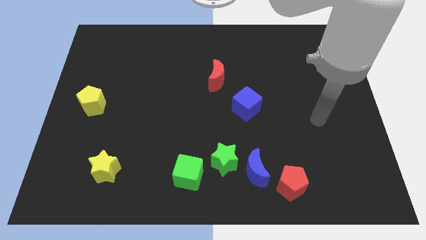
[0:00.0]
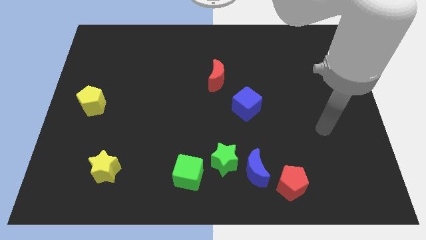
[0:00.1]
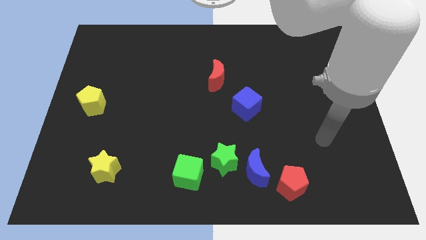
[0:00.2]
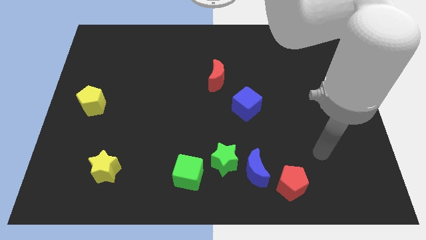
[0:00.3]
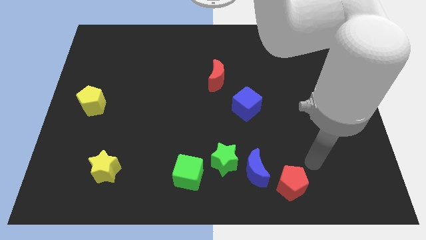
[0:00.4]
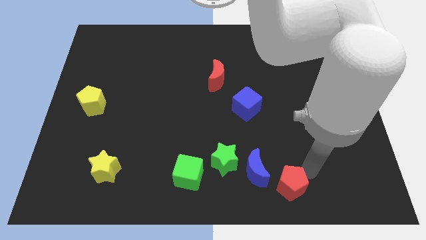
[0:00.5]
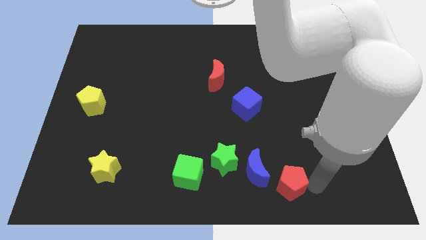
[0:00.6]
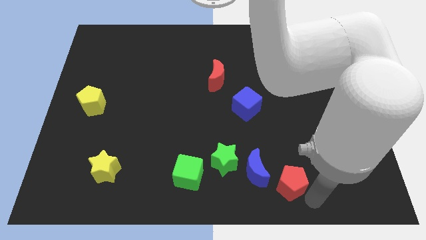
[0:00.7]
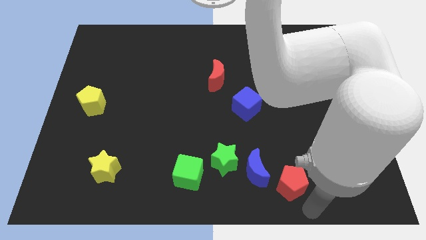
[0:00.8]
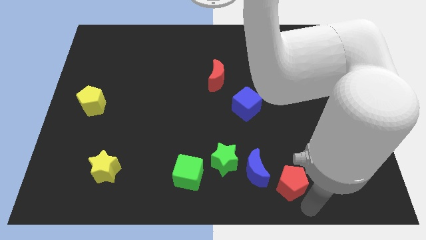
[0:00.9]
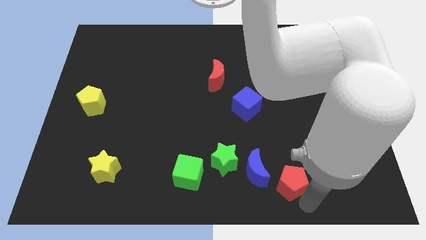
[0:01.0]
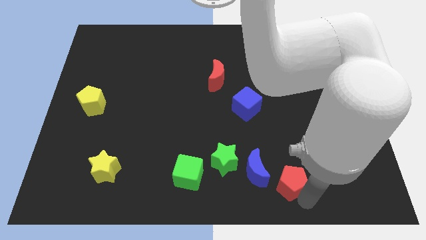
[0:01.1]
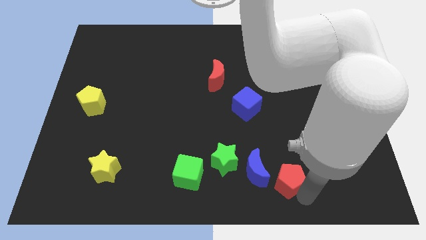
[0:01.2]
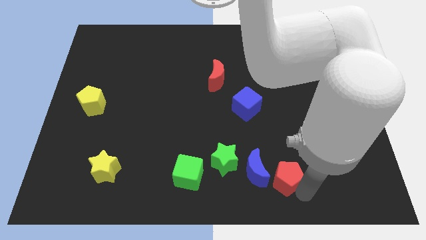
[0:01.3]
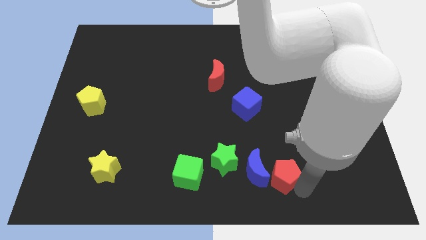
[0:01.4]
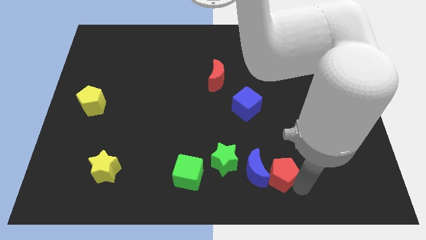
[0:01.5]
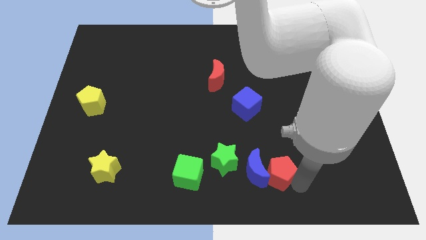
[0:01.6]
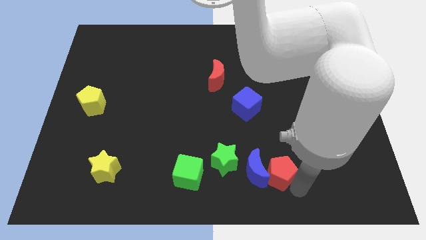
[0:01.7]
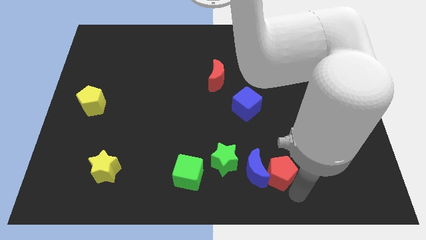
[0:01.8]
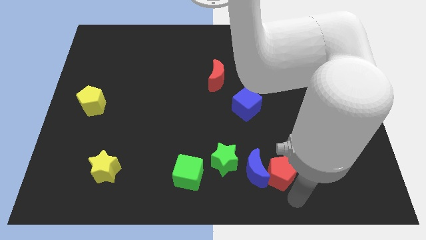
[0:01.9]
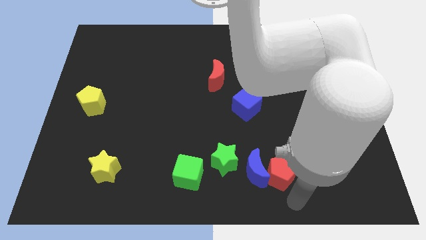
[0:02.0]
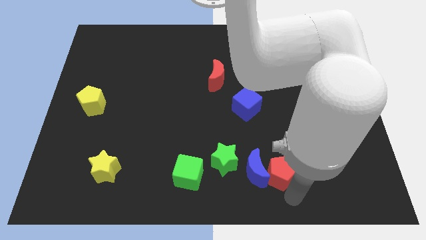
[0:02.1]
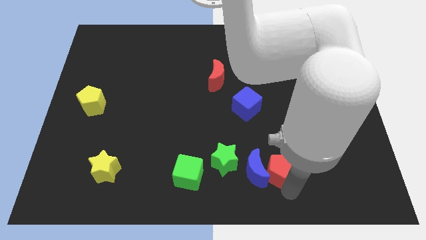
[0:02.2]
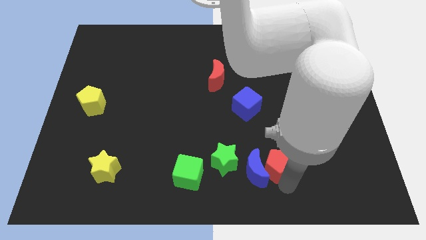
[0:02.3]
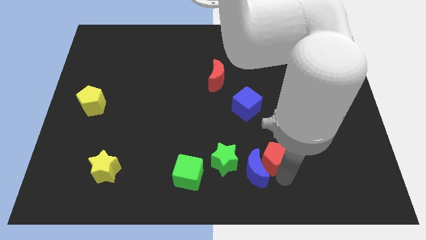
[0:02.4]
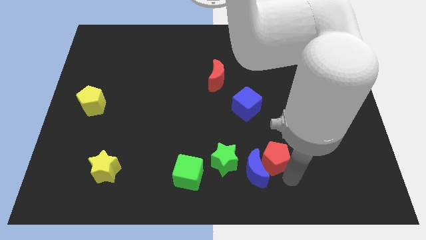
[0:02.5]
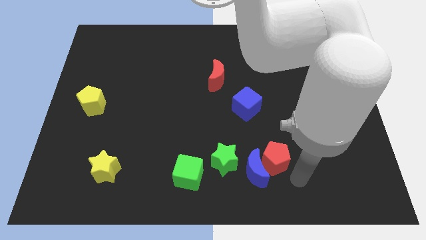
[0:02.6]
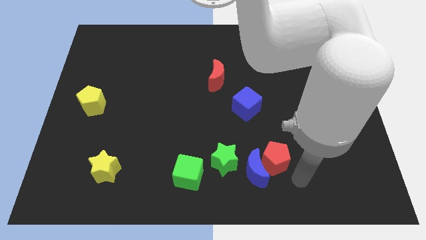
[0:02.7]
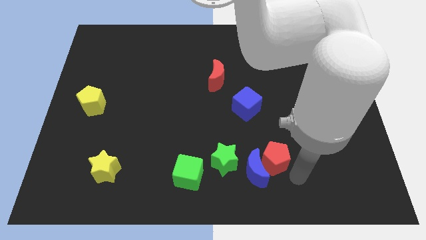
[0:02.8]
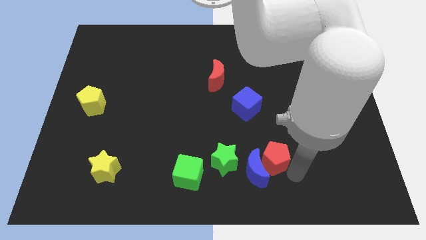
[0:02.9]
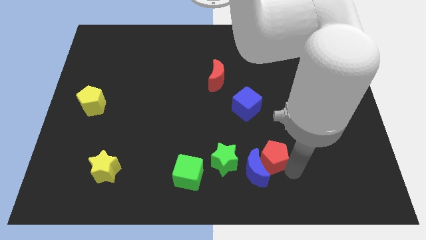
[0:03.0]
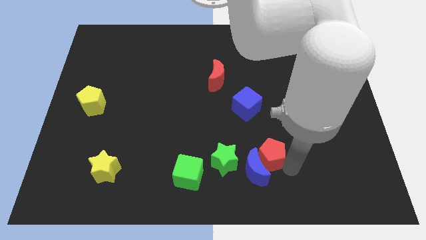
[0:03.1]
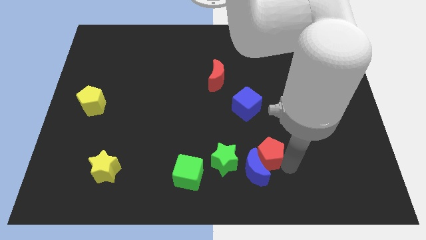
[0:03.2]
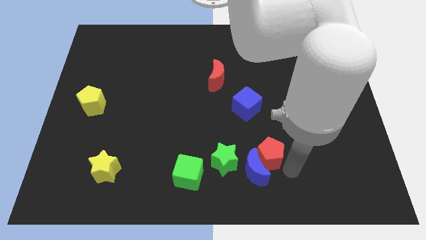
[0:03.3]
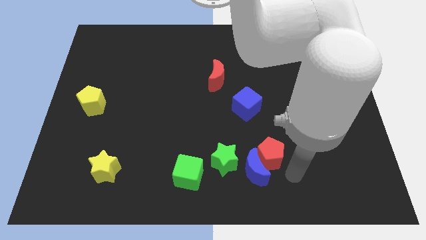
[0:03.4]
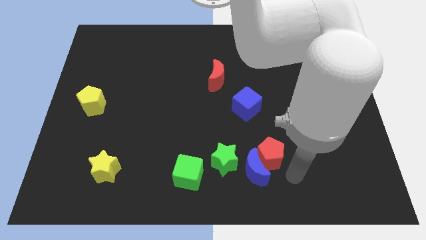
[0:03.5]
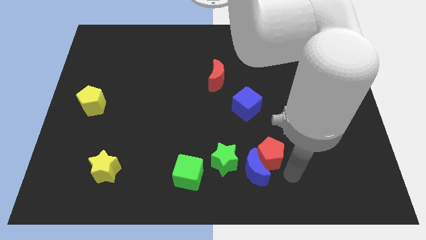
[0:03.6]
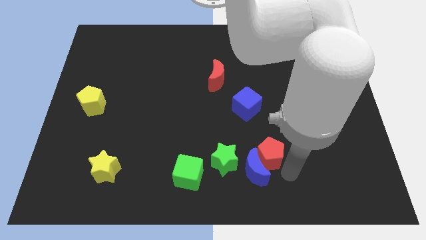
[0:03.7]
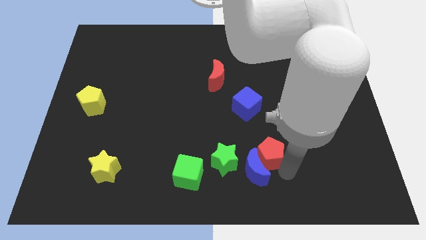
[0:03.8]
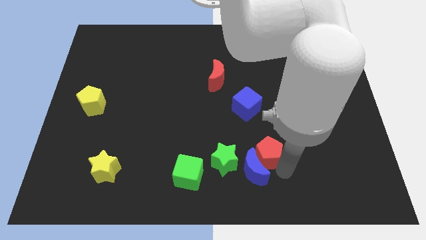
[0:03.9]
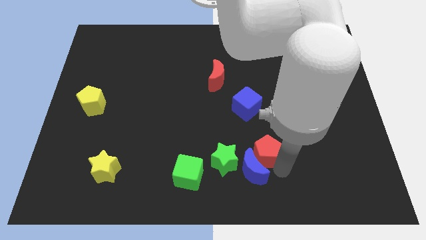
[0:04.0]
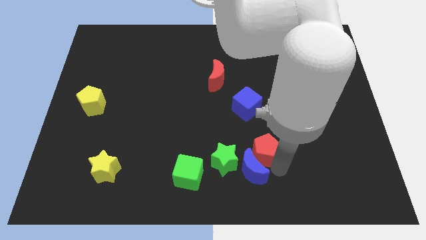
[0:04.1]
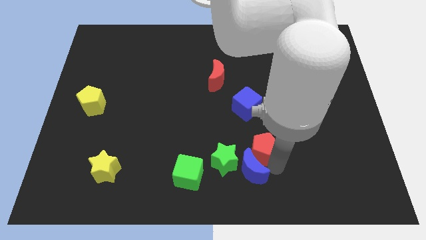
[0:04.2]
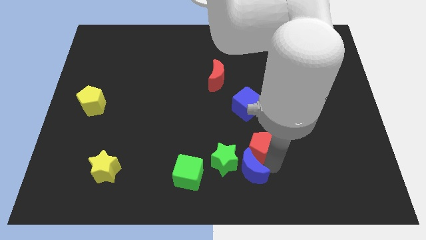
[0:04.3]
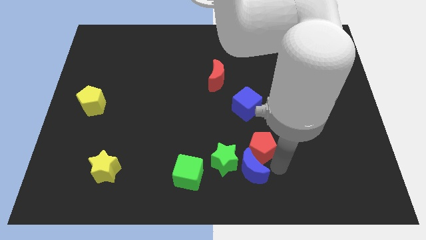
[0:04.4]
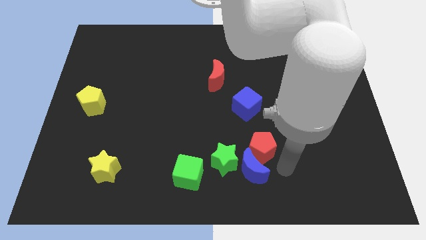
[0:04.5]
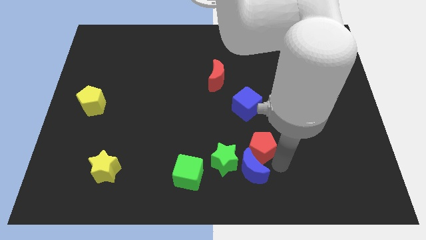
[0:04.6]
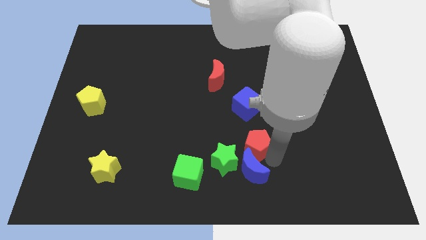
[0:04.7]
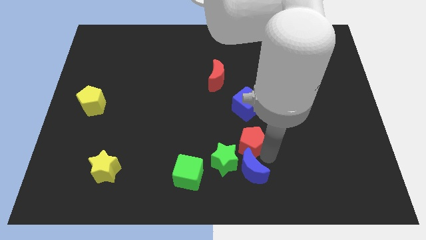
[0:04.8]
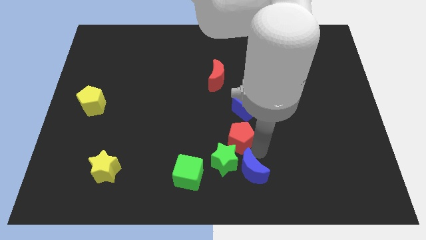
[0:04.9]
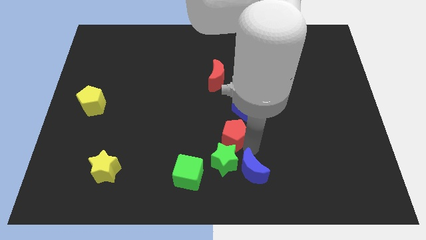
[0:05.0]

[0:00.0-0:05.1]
push the red pentagon to the middle

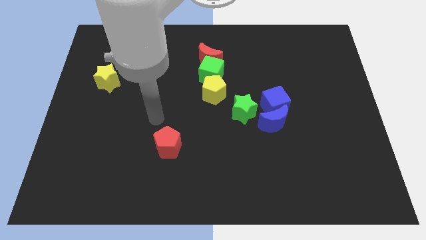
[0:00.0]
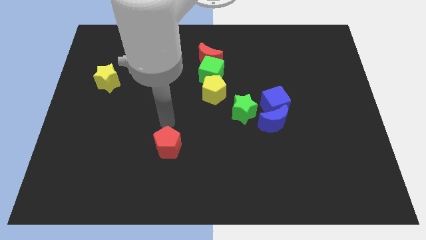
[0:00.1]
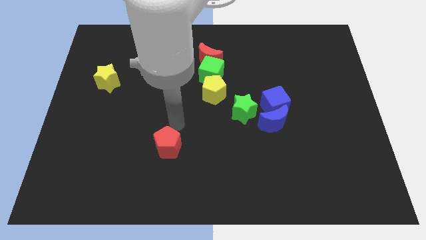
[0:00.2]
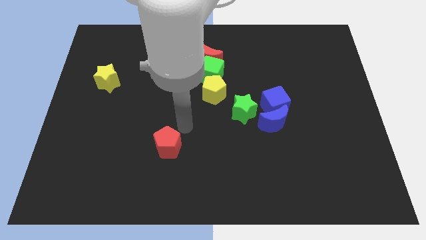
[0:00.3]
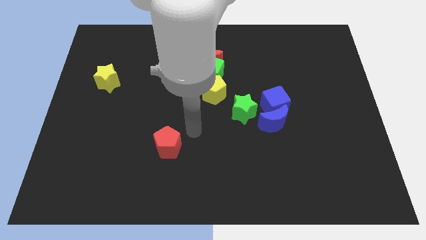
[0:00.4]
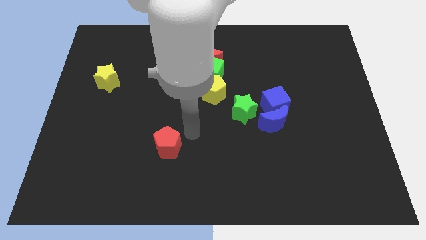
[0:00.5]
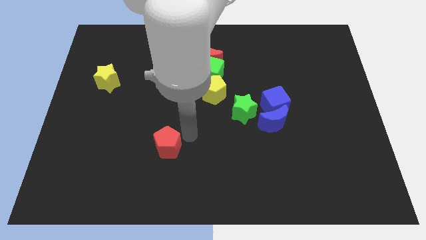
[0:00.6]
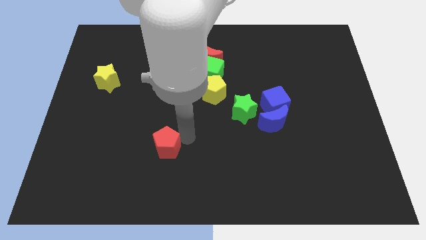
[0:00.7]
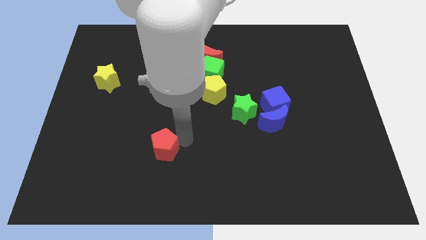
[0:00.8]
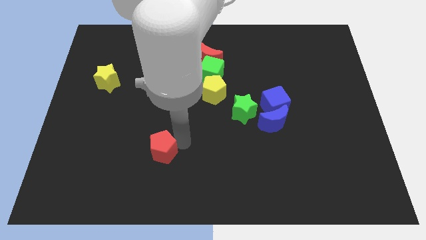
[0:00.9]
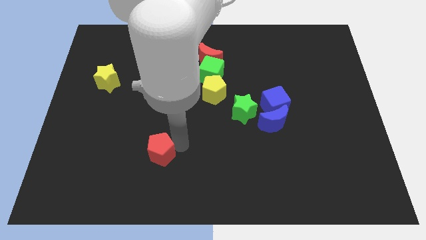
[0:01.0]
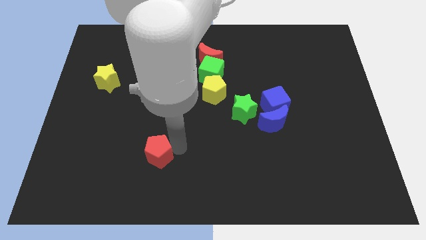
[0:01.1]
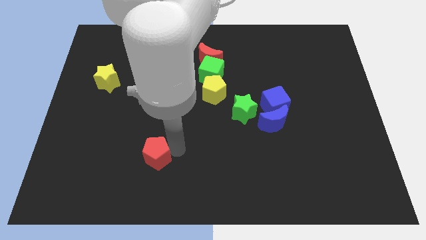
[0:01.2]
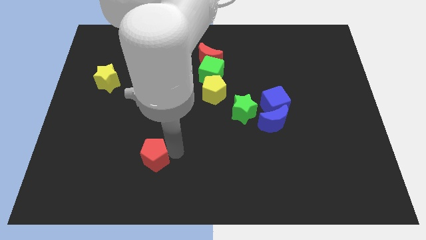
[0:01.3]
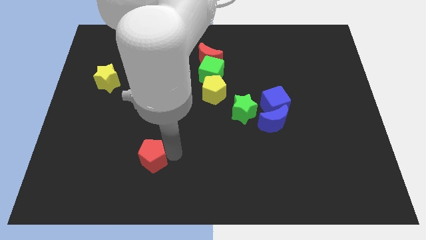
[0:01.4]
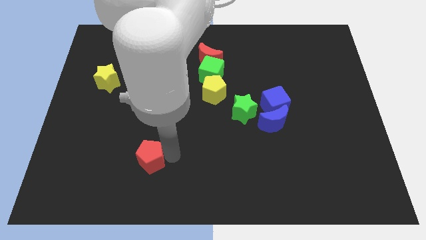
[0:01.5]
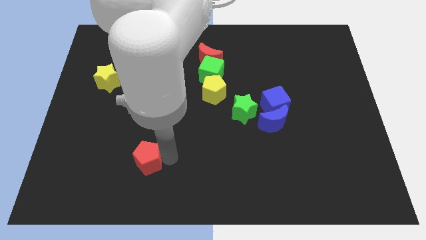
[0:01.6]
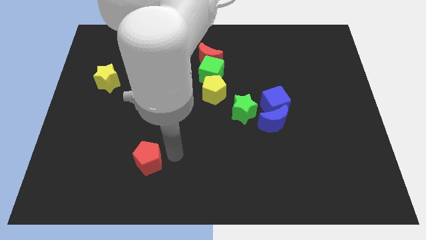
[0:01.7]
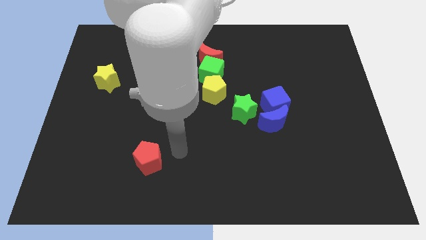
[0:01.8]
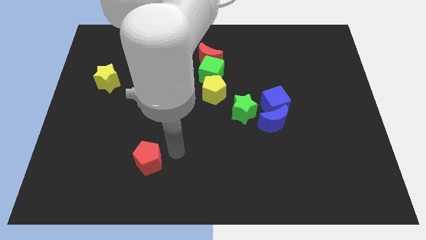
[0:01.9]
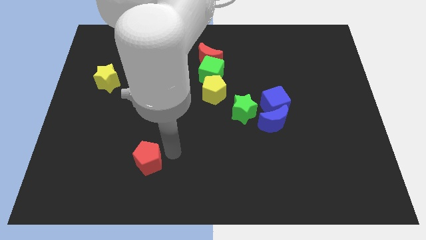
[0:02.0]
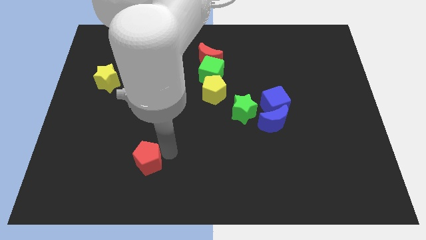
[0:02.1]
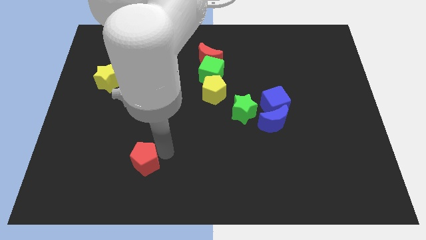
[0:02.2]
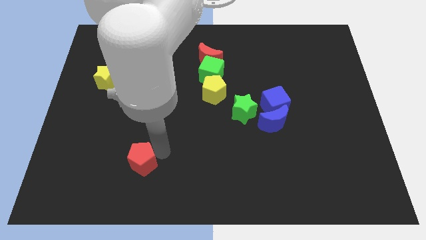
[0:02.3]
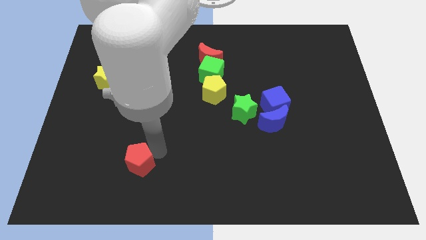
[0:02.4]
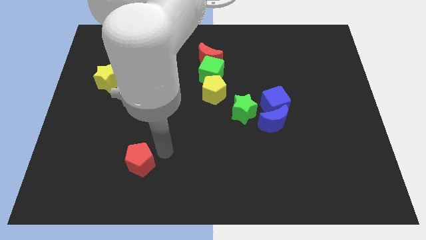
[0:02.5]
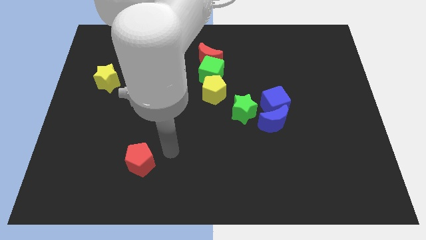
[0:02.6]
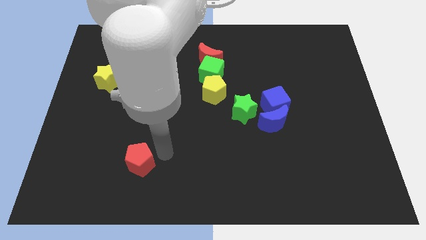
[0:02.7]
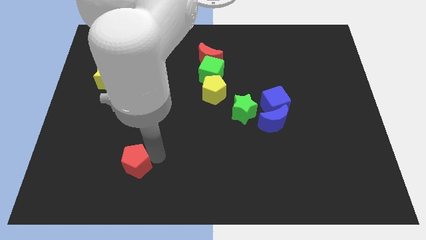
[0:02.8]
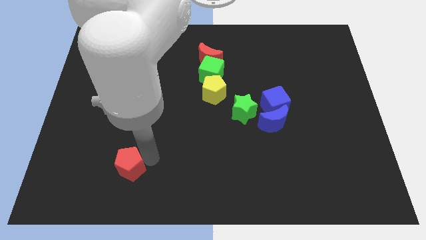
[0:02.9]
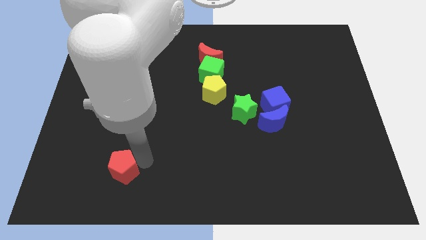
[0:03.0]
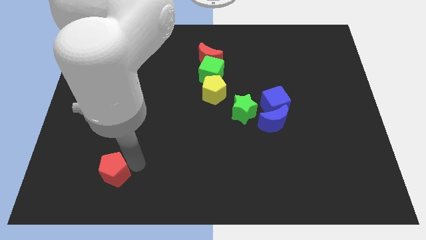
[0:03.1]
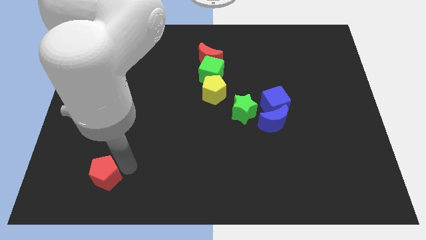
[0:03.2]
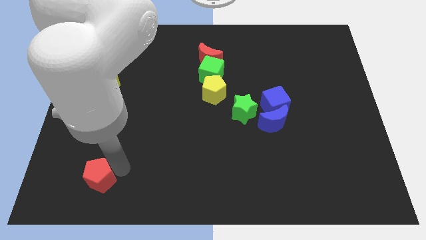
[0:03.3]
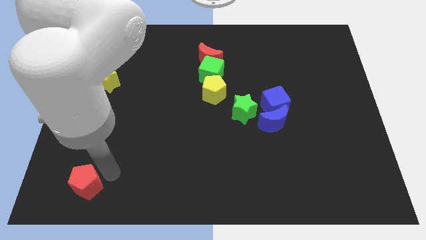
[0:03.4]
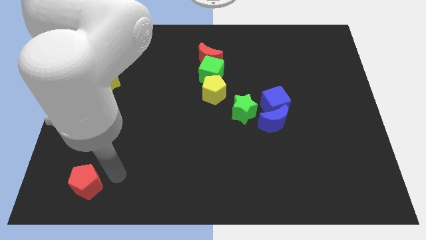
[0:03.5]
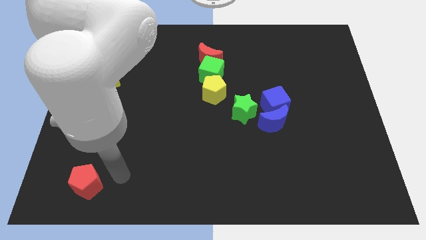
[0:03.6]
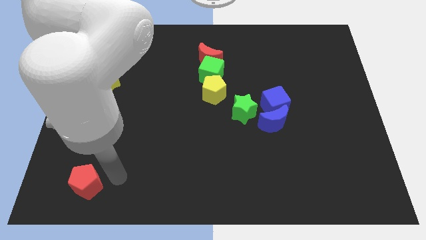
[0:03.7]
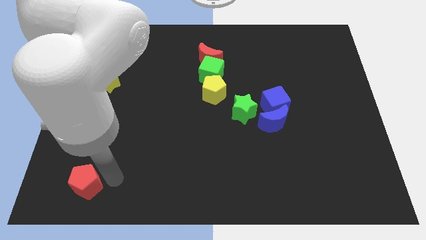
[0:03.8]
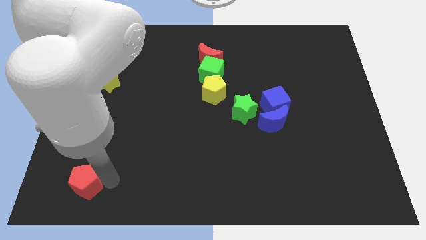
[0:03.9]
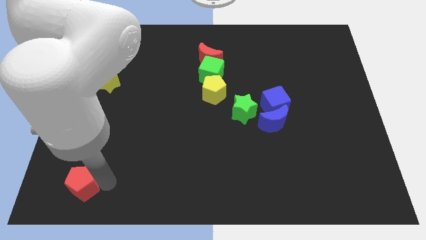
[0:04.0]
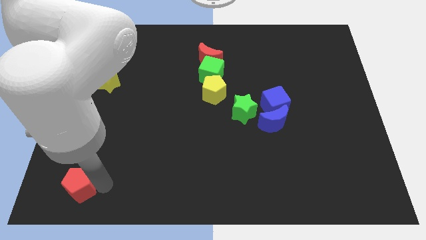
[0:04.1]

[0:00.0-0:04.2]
move the red pentagon to the bottom left corner
